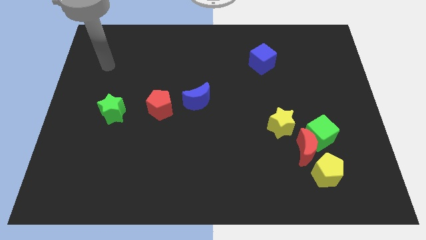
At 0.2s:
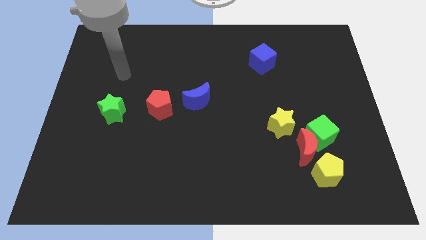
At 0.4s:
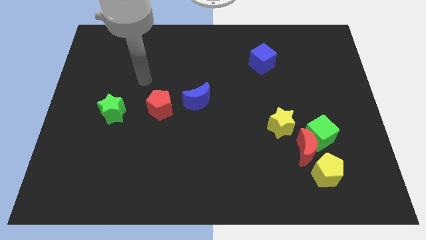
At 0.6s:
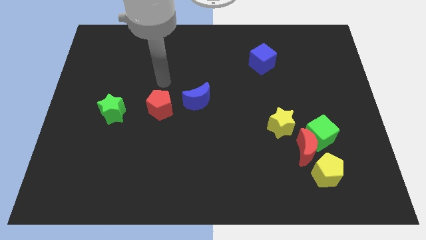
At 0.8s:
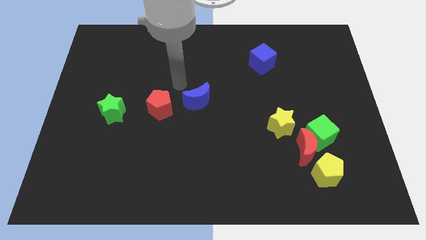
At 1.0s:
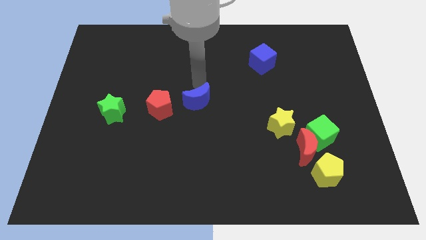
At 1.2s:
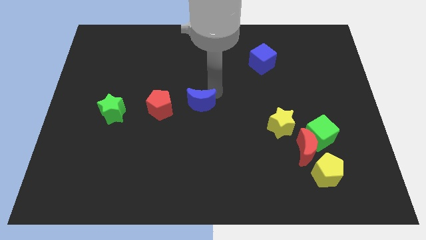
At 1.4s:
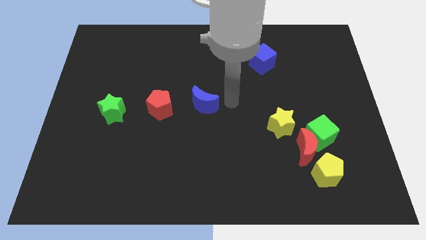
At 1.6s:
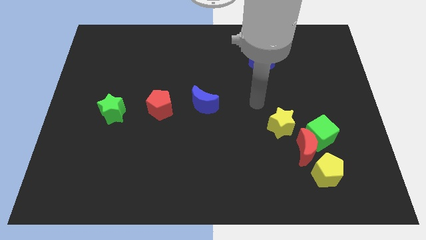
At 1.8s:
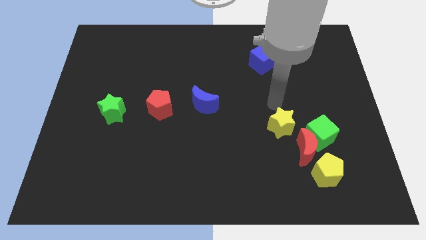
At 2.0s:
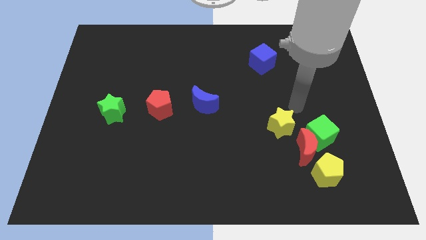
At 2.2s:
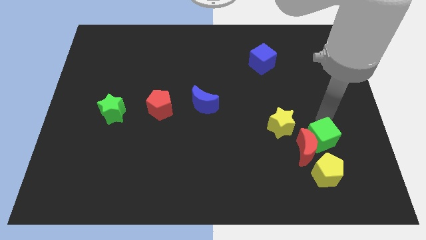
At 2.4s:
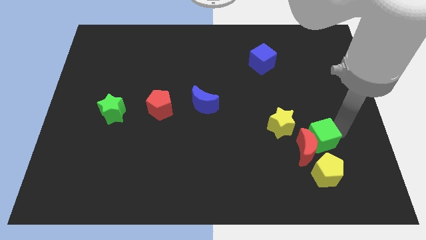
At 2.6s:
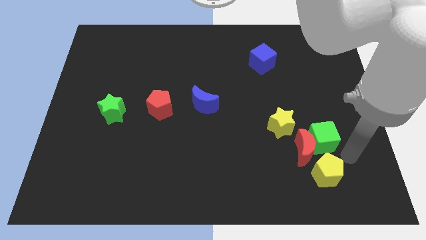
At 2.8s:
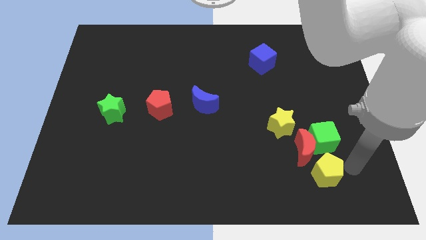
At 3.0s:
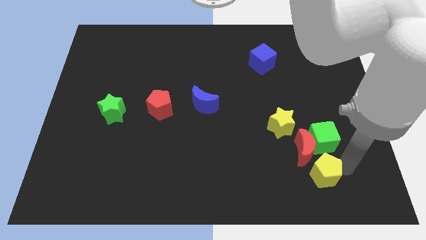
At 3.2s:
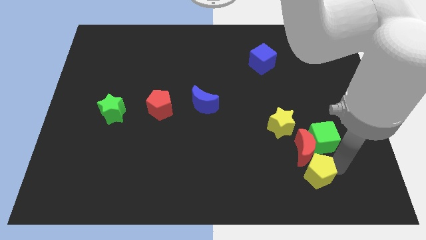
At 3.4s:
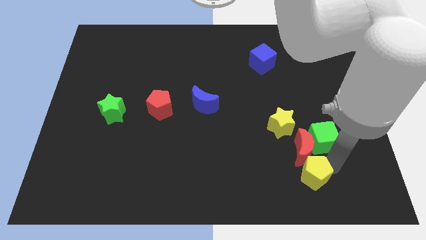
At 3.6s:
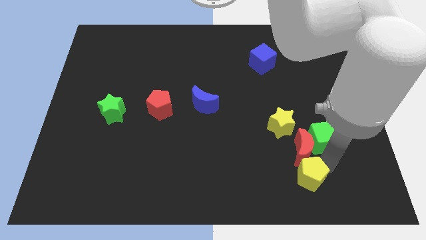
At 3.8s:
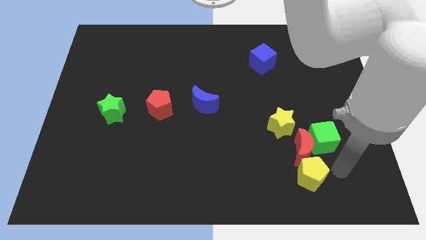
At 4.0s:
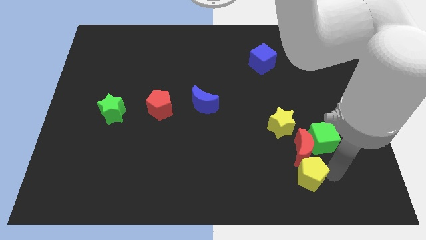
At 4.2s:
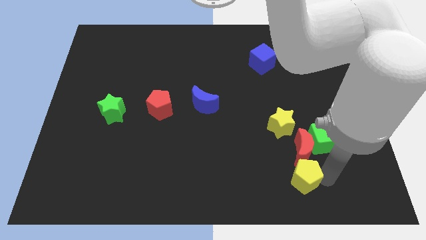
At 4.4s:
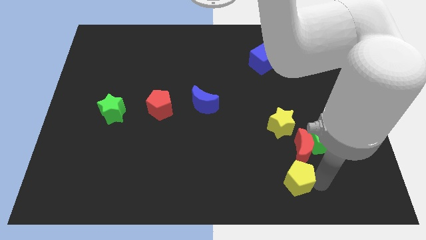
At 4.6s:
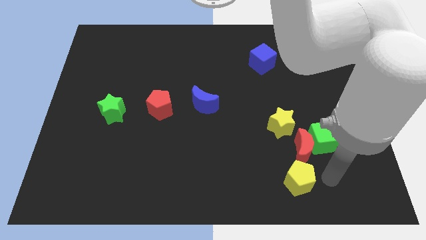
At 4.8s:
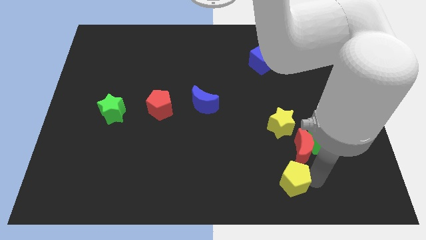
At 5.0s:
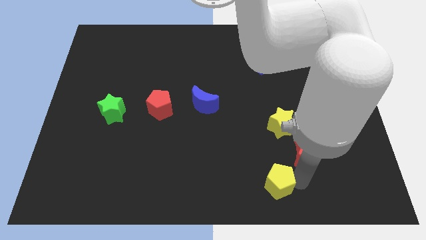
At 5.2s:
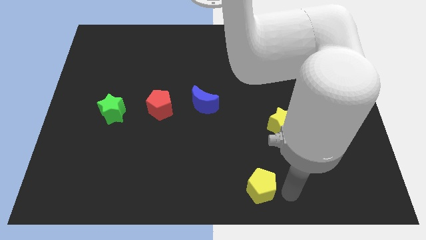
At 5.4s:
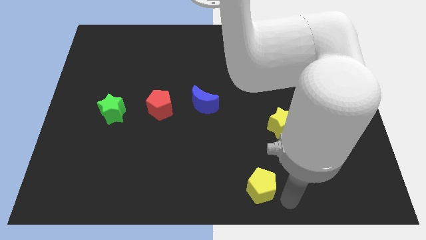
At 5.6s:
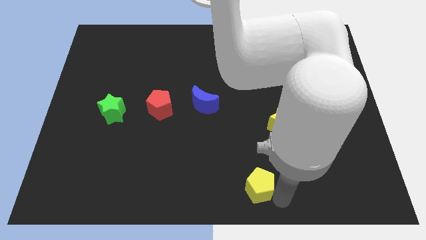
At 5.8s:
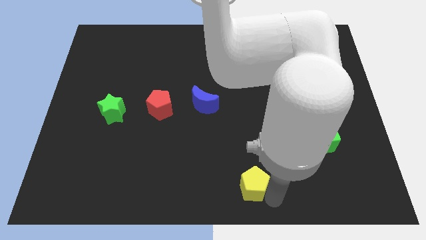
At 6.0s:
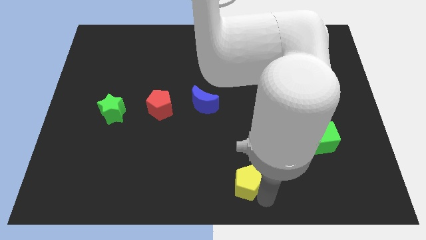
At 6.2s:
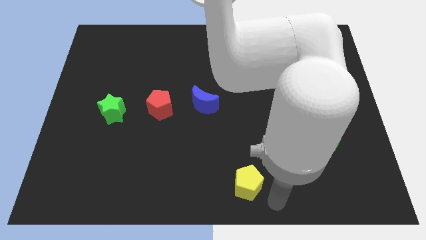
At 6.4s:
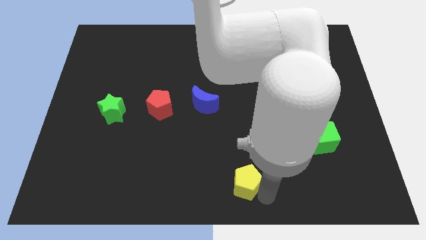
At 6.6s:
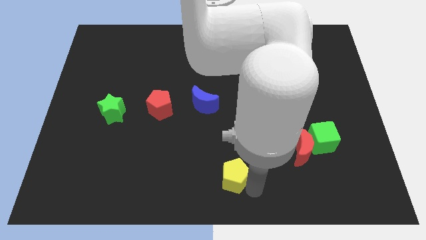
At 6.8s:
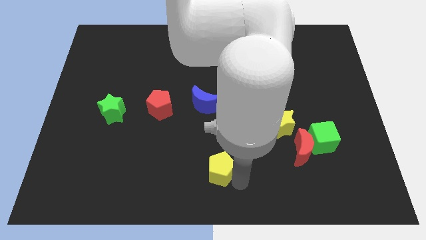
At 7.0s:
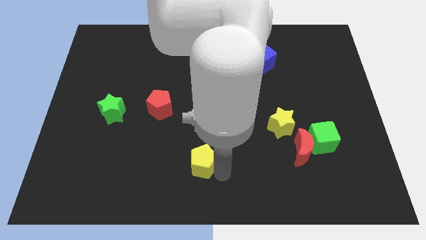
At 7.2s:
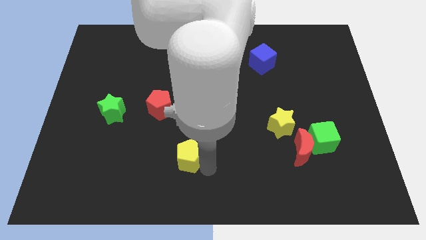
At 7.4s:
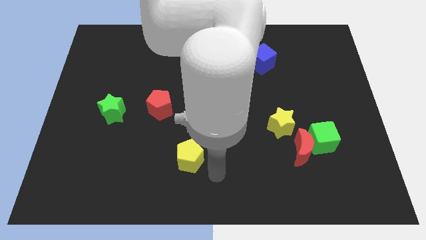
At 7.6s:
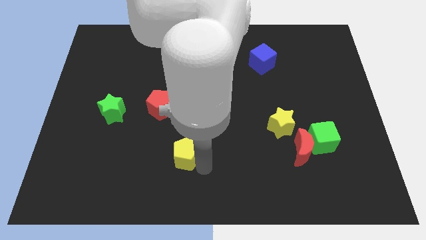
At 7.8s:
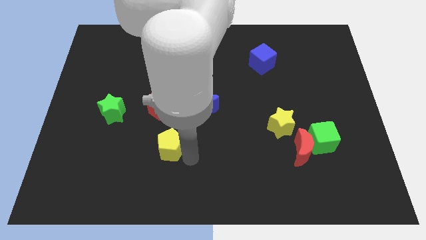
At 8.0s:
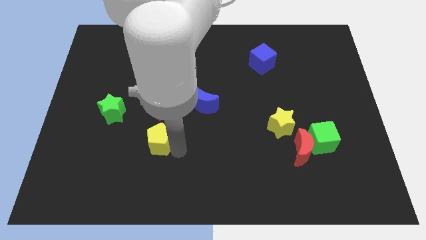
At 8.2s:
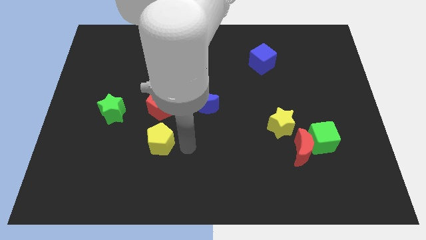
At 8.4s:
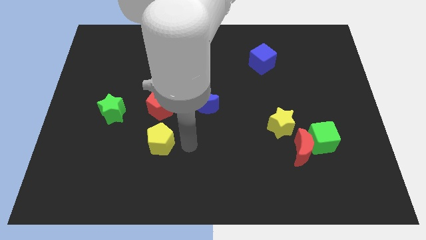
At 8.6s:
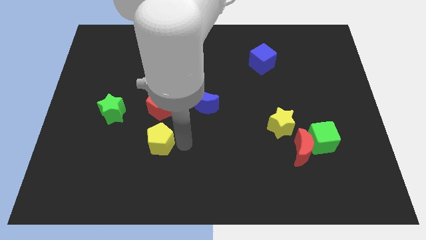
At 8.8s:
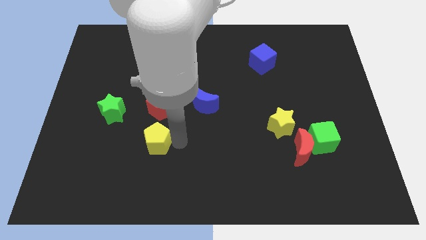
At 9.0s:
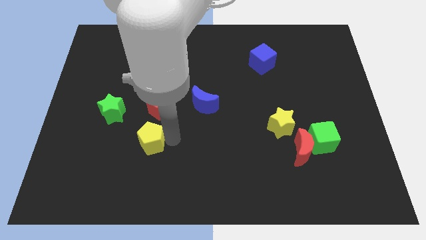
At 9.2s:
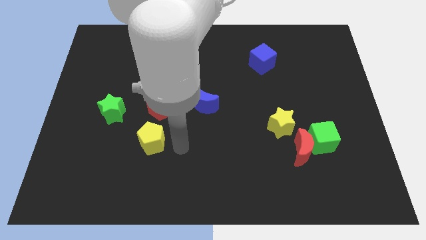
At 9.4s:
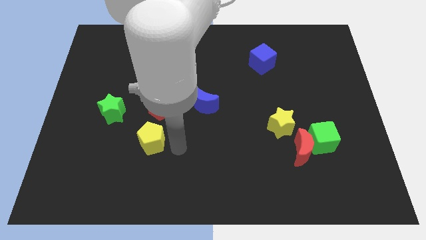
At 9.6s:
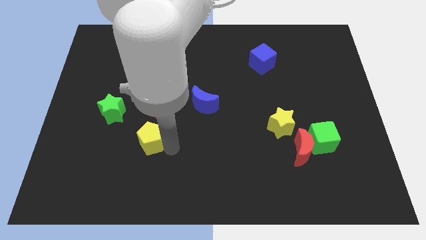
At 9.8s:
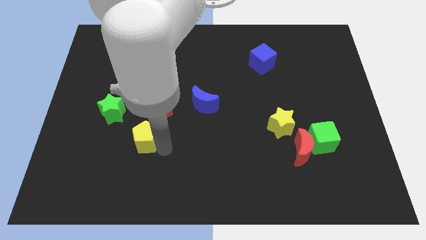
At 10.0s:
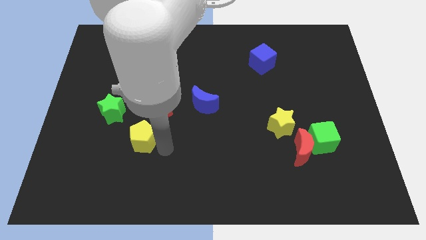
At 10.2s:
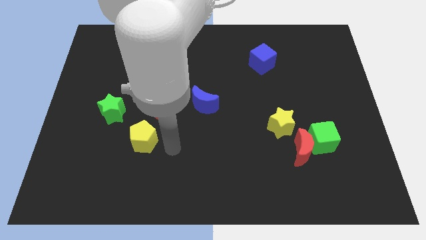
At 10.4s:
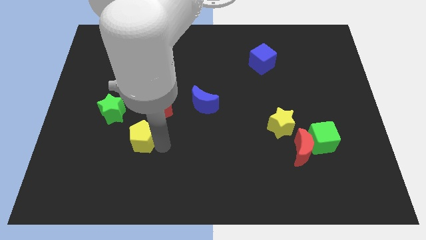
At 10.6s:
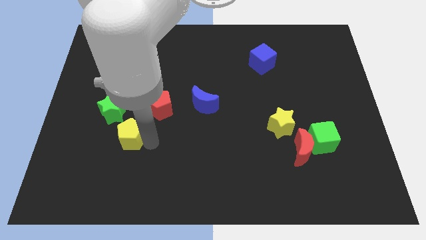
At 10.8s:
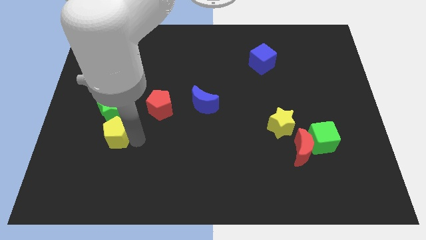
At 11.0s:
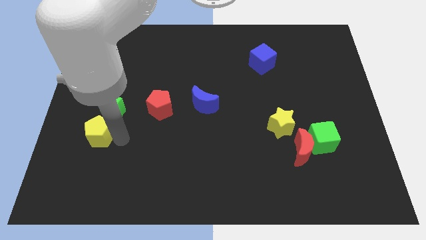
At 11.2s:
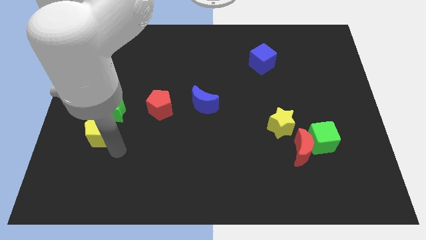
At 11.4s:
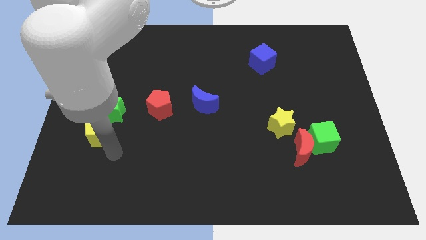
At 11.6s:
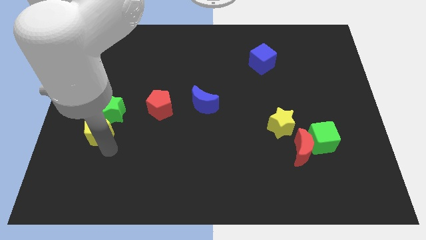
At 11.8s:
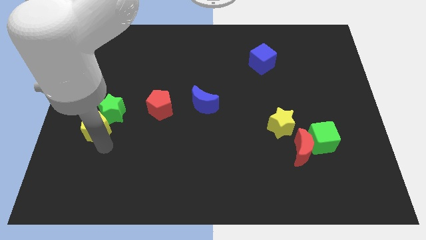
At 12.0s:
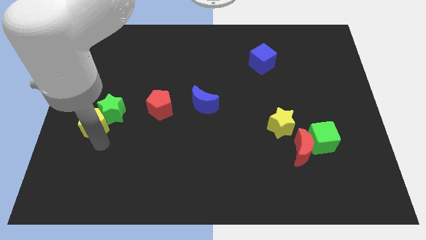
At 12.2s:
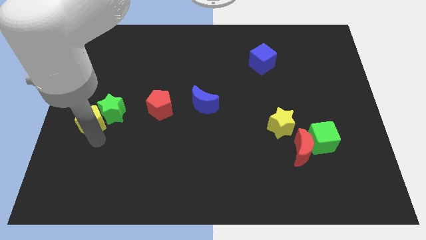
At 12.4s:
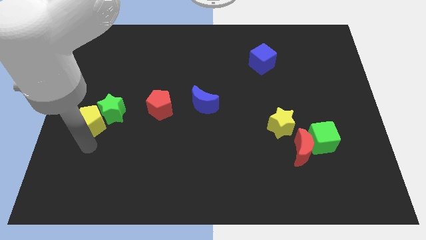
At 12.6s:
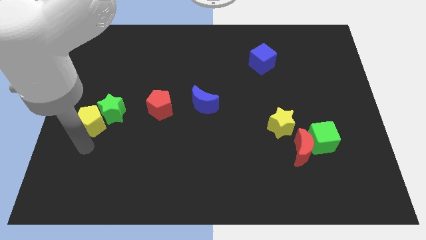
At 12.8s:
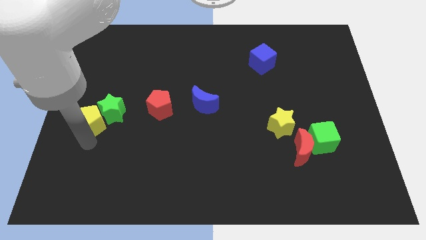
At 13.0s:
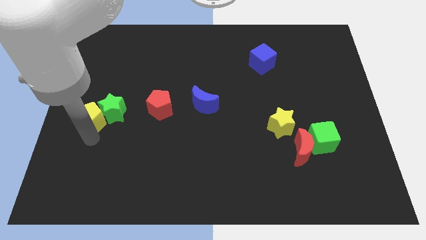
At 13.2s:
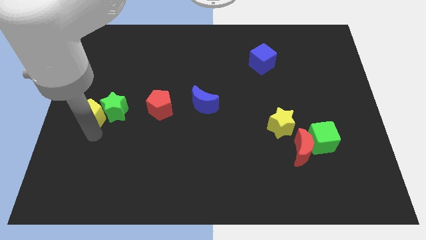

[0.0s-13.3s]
move the yellow pentagon just left of the red pentagon
